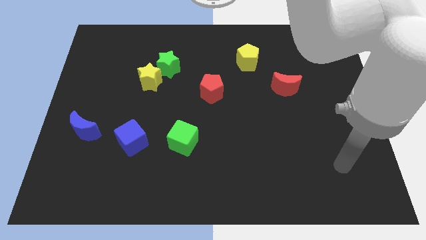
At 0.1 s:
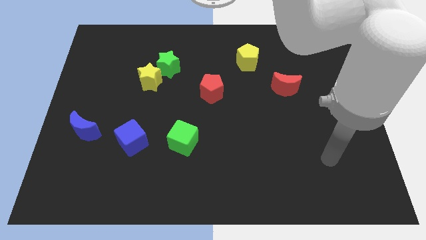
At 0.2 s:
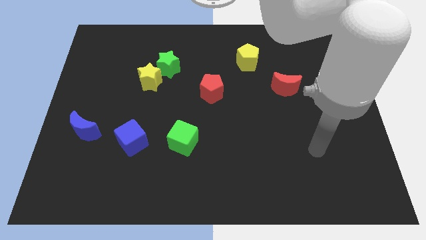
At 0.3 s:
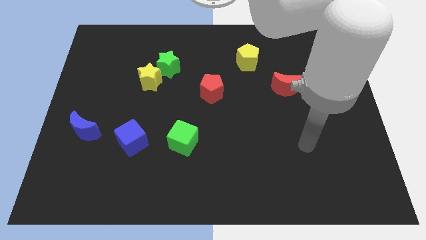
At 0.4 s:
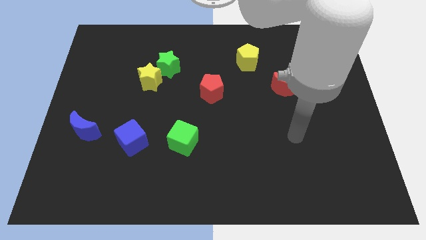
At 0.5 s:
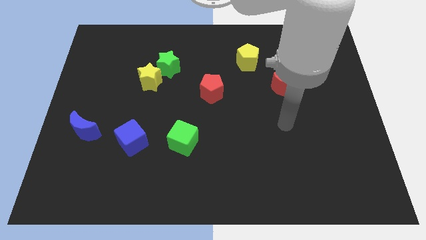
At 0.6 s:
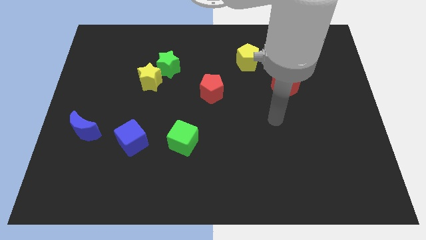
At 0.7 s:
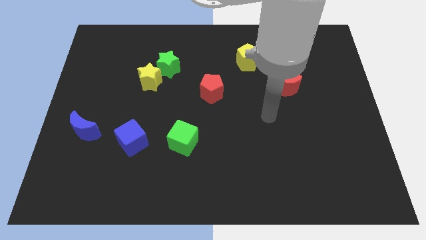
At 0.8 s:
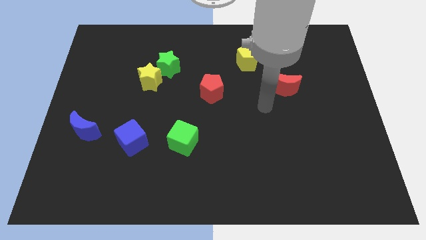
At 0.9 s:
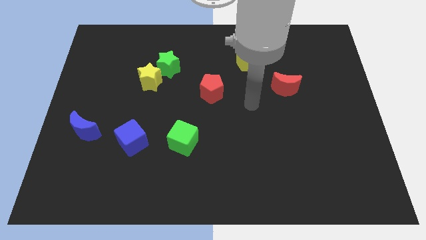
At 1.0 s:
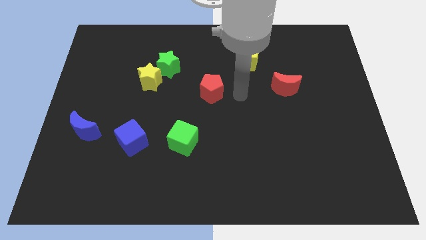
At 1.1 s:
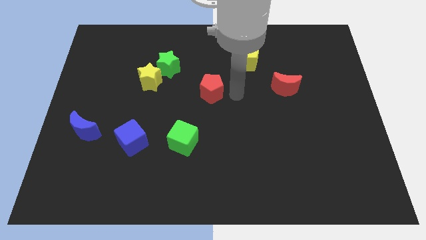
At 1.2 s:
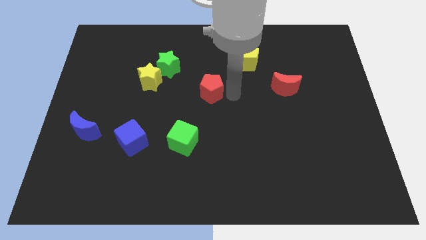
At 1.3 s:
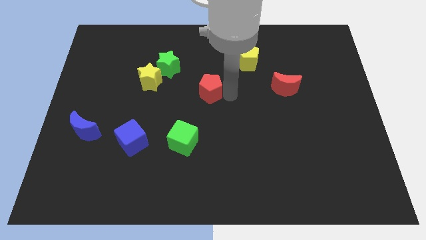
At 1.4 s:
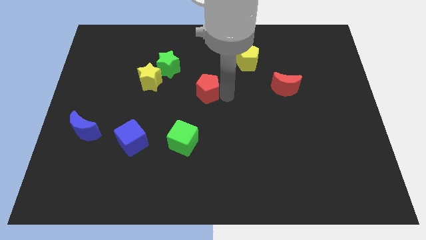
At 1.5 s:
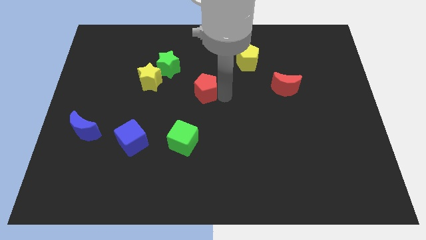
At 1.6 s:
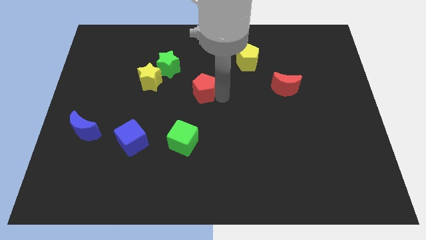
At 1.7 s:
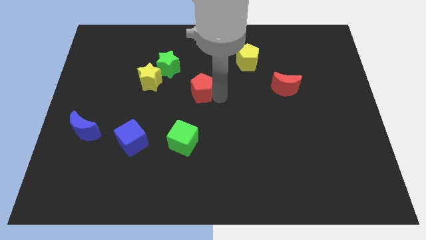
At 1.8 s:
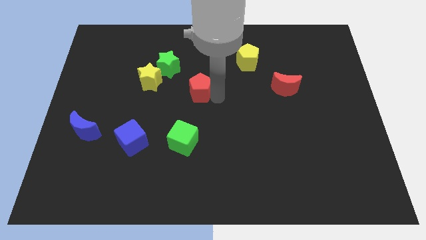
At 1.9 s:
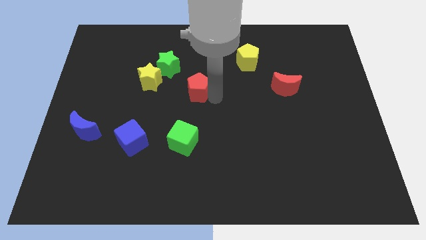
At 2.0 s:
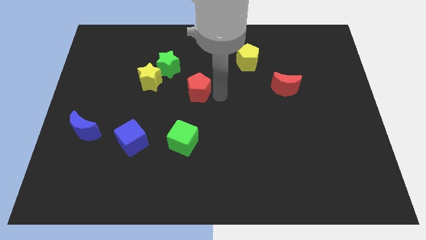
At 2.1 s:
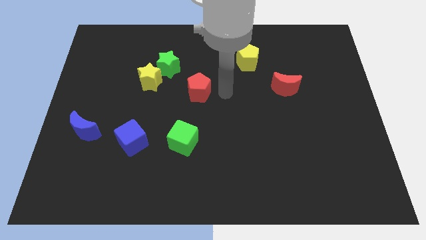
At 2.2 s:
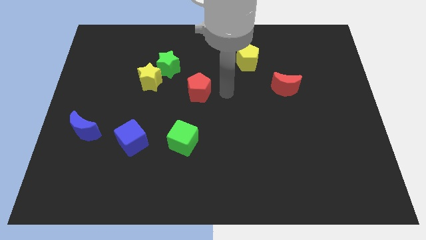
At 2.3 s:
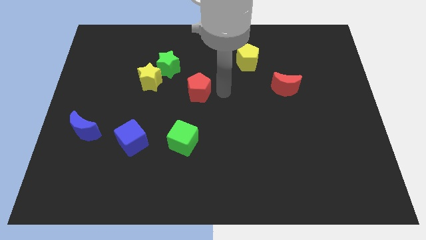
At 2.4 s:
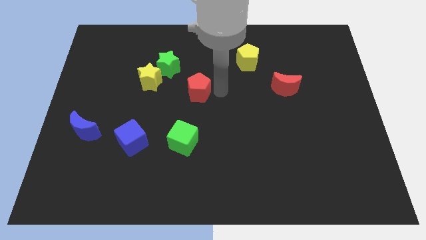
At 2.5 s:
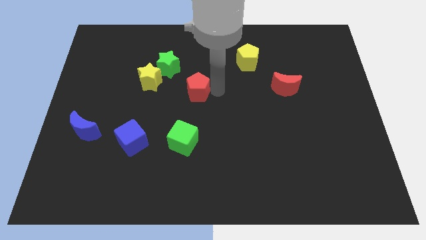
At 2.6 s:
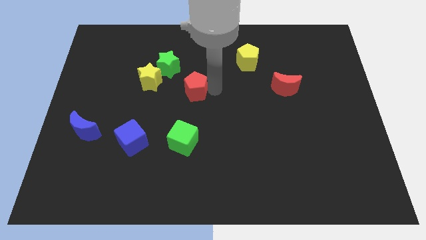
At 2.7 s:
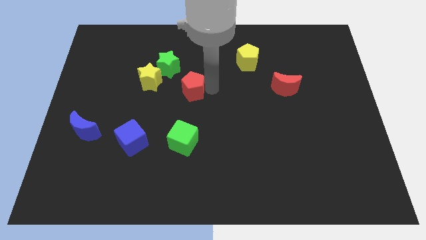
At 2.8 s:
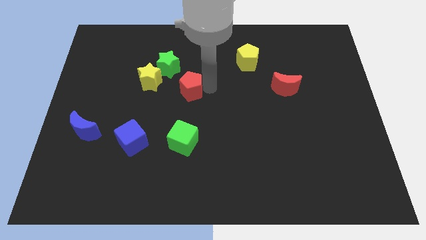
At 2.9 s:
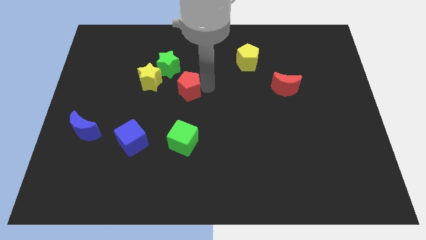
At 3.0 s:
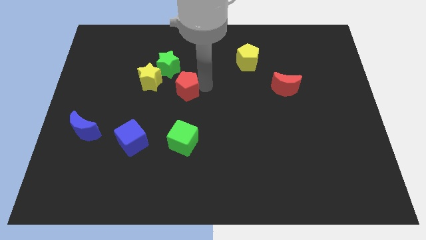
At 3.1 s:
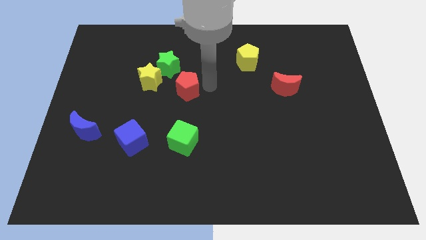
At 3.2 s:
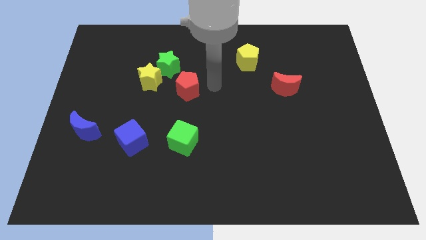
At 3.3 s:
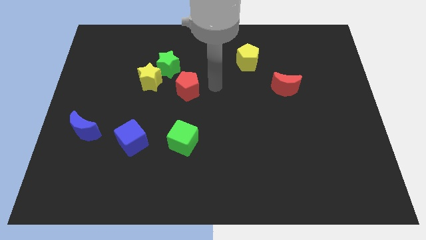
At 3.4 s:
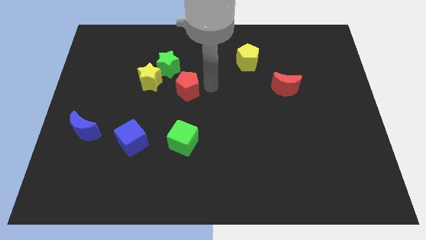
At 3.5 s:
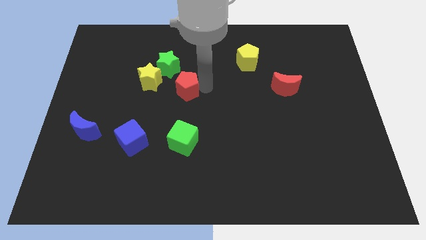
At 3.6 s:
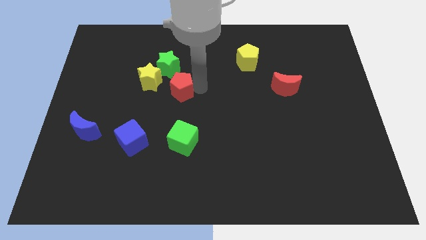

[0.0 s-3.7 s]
slightly slide the red pentagon to the left

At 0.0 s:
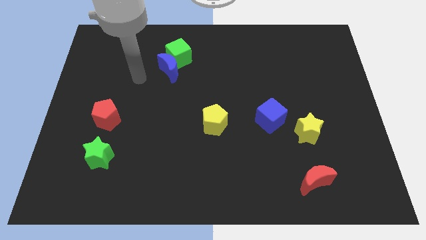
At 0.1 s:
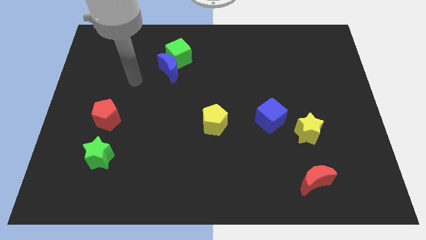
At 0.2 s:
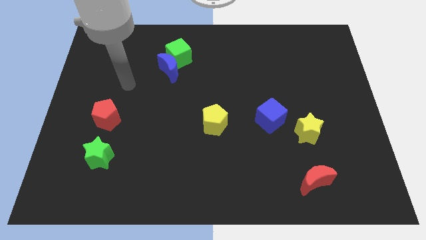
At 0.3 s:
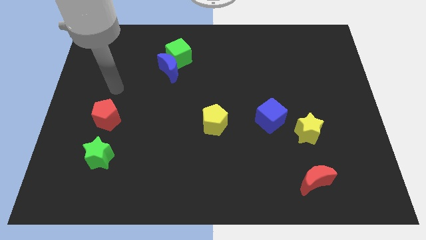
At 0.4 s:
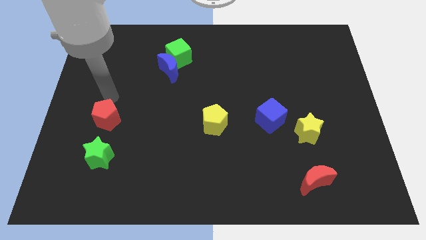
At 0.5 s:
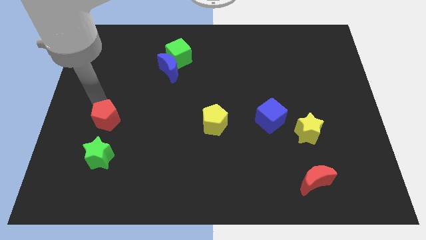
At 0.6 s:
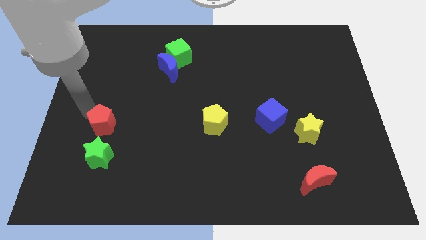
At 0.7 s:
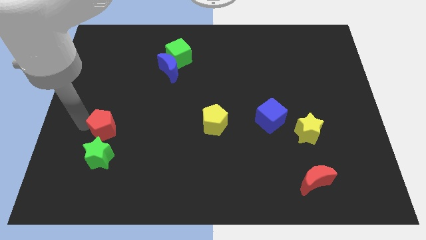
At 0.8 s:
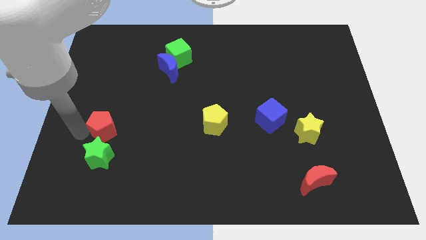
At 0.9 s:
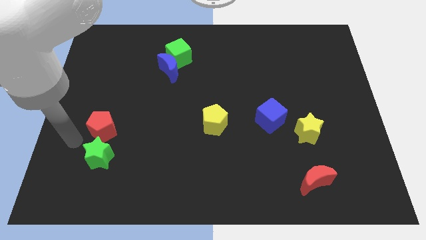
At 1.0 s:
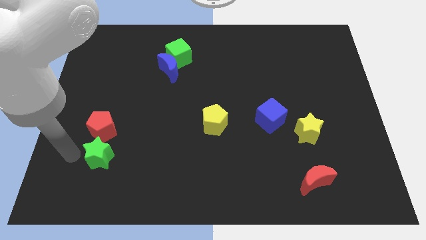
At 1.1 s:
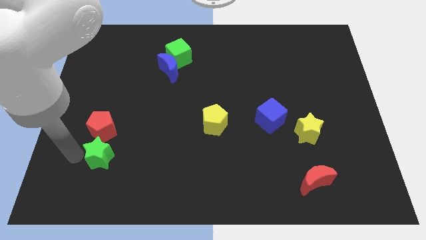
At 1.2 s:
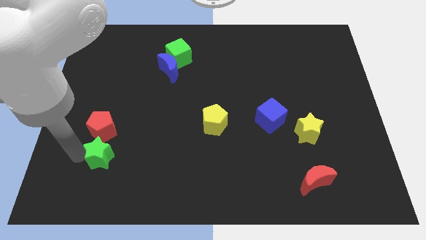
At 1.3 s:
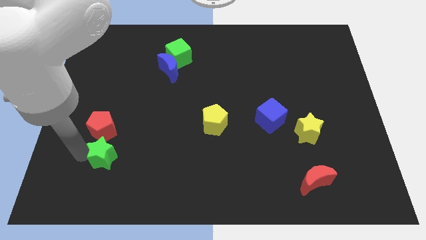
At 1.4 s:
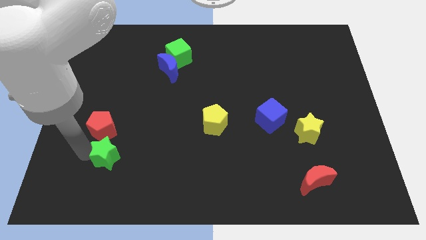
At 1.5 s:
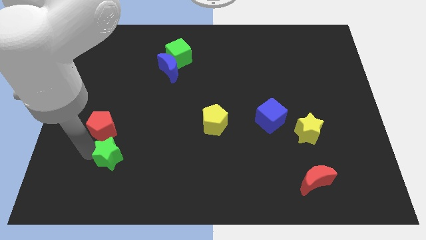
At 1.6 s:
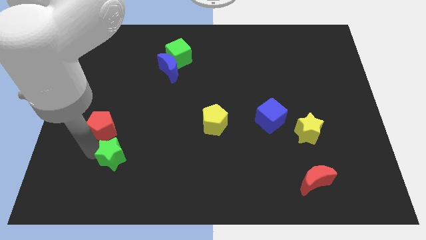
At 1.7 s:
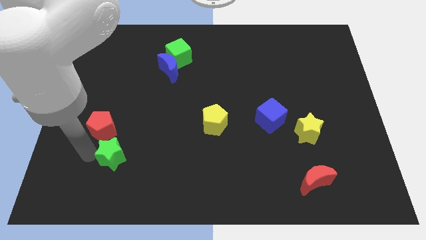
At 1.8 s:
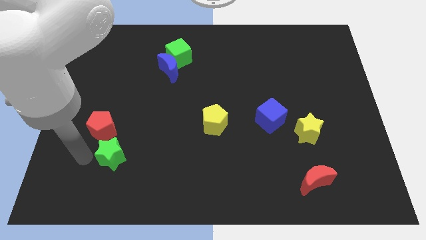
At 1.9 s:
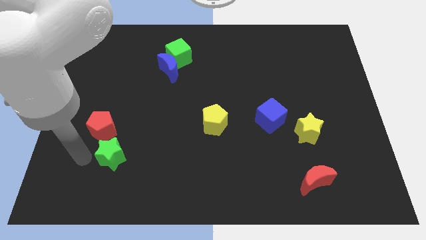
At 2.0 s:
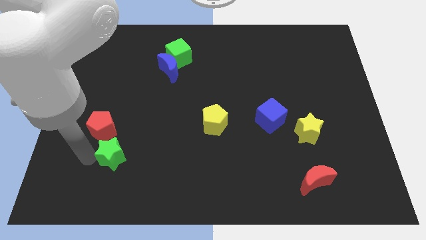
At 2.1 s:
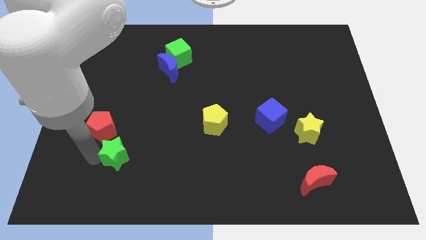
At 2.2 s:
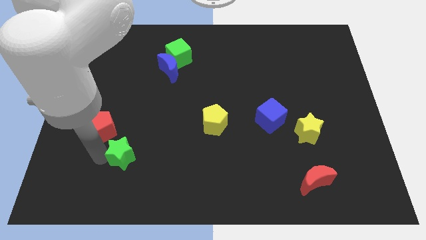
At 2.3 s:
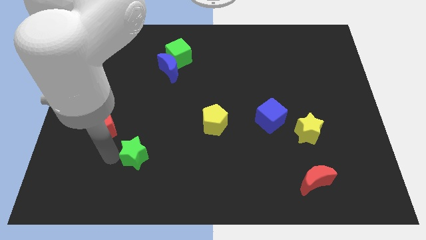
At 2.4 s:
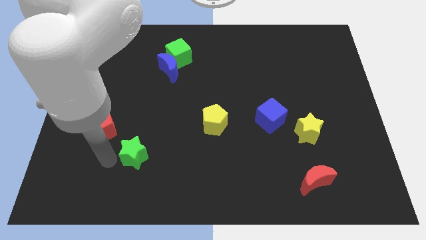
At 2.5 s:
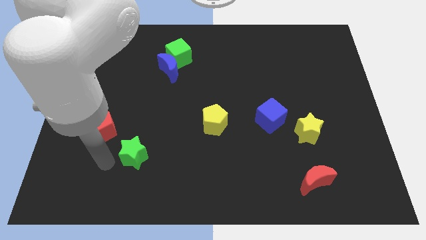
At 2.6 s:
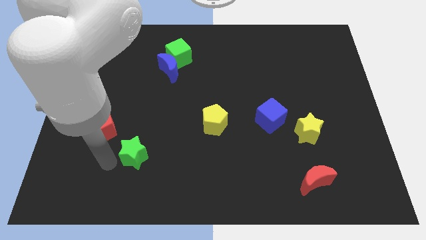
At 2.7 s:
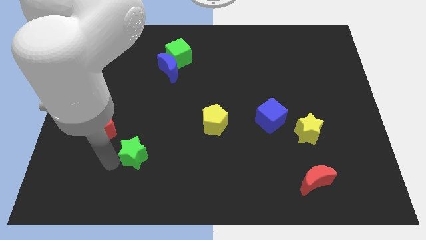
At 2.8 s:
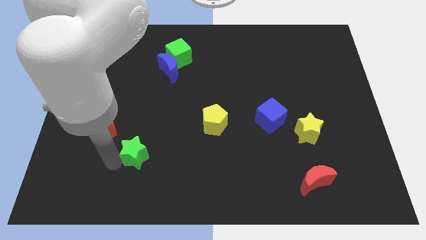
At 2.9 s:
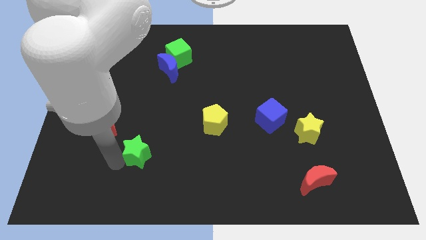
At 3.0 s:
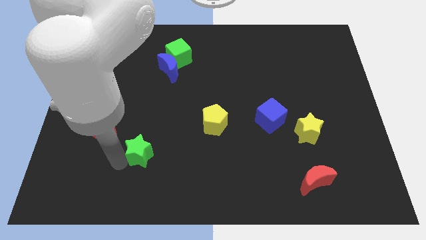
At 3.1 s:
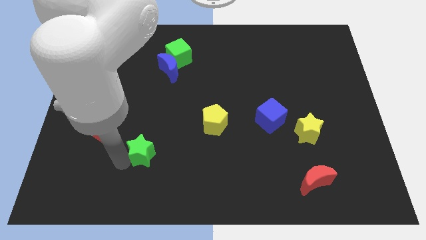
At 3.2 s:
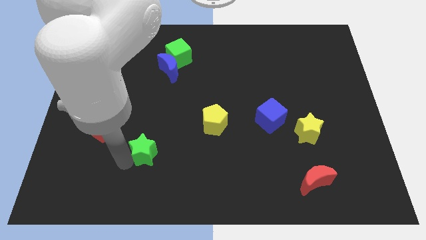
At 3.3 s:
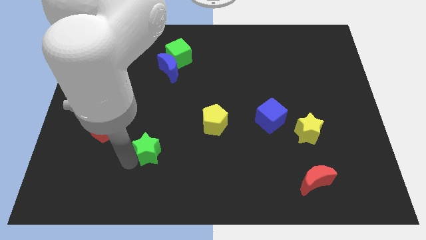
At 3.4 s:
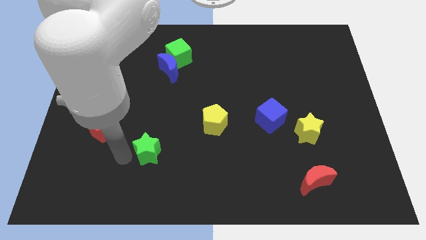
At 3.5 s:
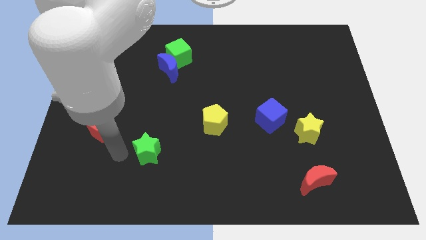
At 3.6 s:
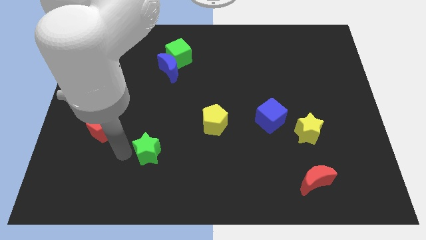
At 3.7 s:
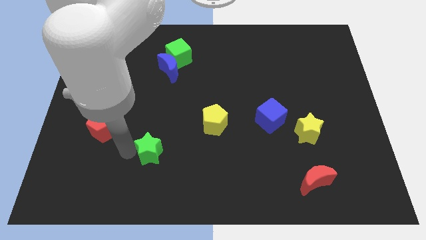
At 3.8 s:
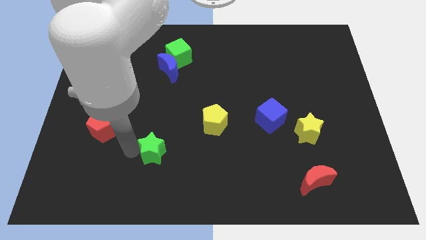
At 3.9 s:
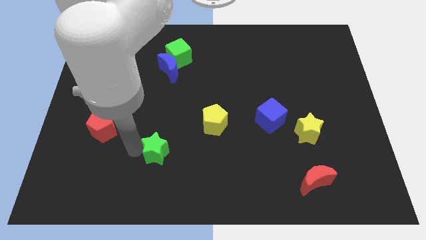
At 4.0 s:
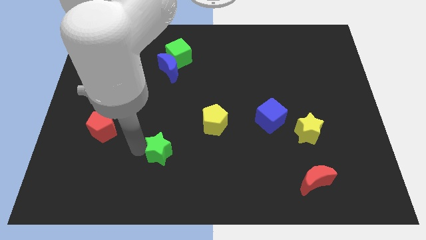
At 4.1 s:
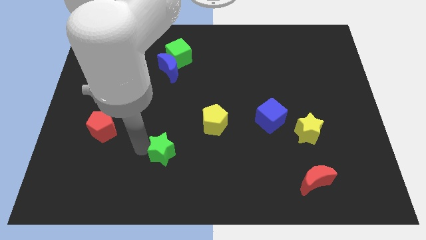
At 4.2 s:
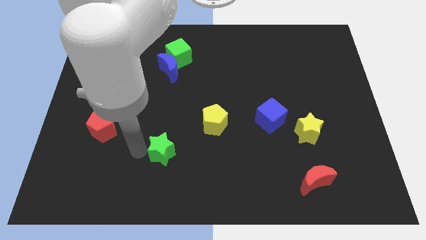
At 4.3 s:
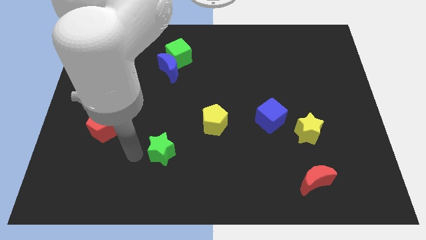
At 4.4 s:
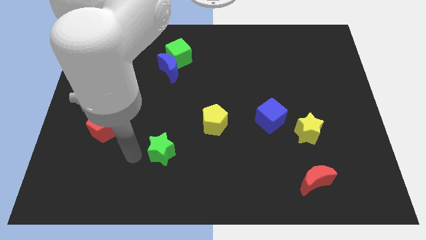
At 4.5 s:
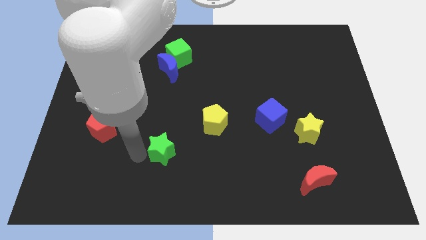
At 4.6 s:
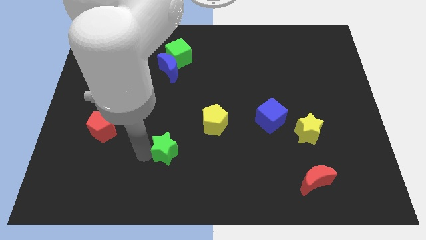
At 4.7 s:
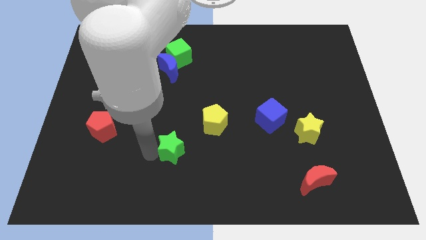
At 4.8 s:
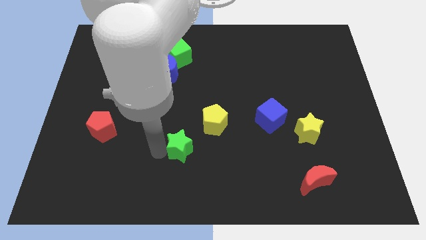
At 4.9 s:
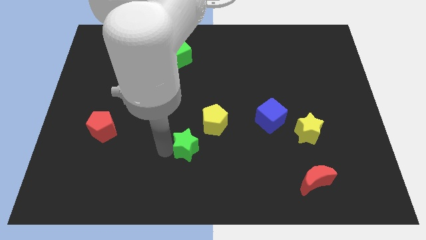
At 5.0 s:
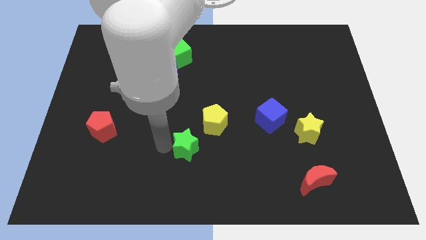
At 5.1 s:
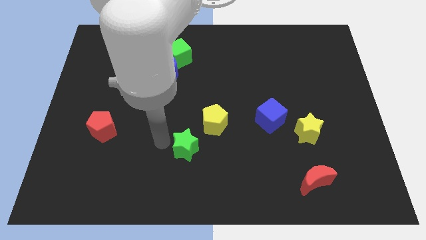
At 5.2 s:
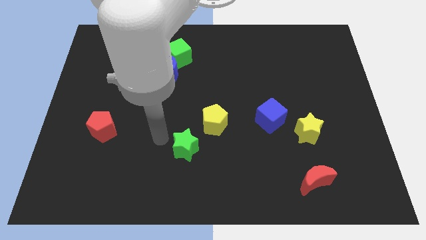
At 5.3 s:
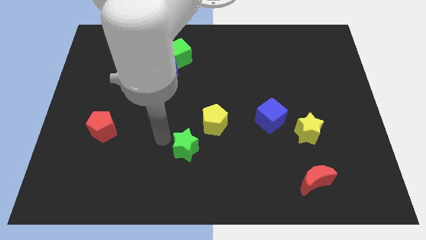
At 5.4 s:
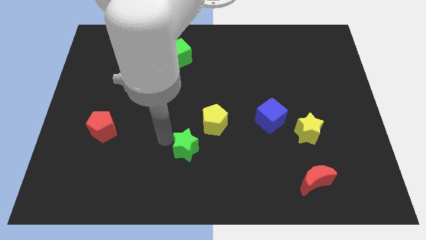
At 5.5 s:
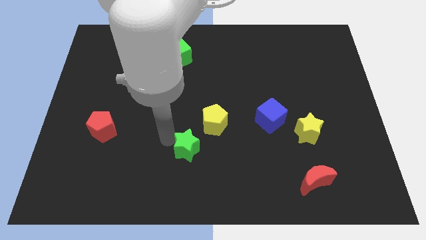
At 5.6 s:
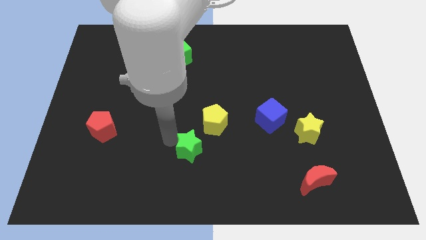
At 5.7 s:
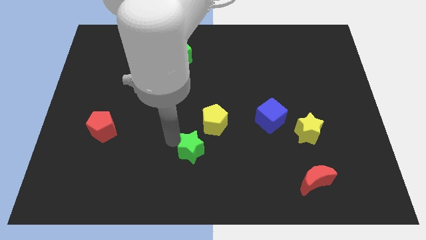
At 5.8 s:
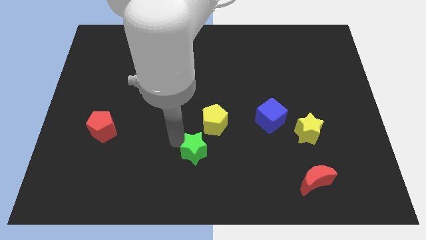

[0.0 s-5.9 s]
push the green star right
